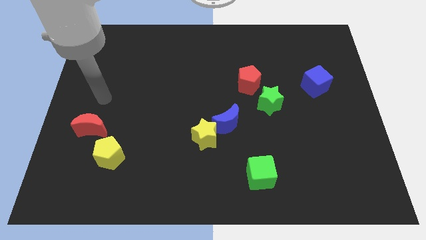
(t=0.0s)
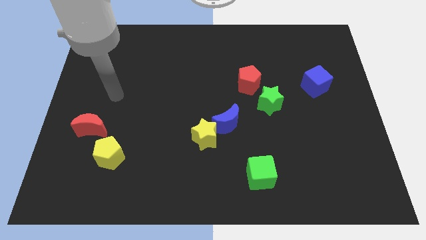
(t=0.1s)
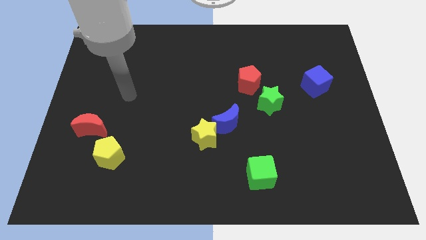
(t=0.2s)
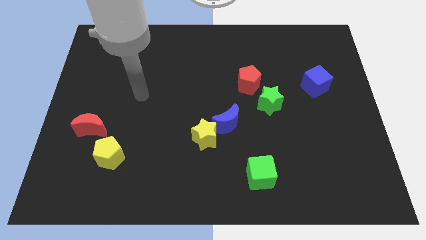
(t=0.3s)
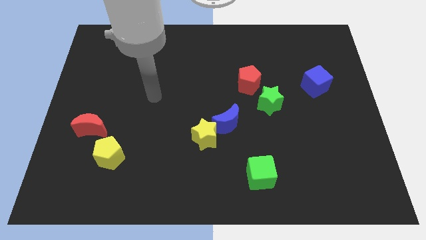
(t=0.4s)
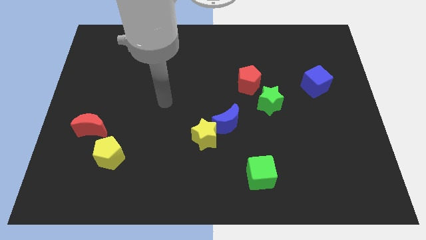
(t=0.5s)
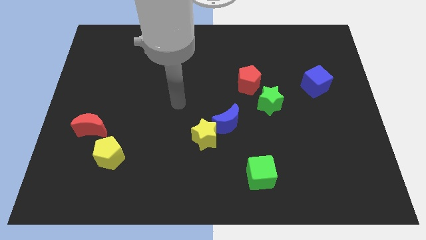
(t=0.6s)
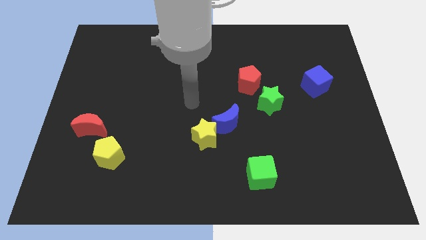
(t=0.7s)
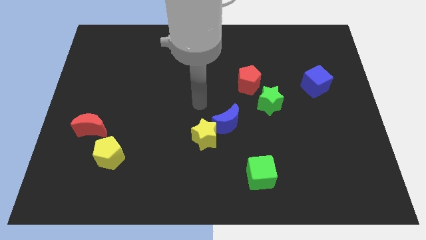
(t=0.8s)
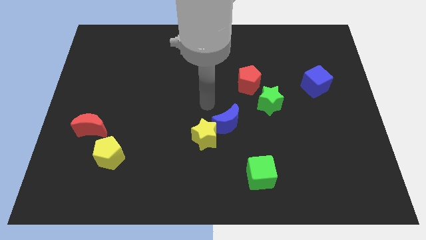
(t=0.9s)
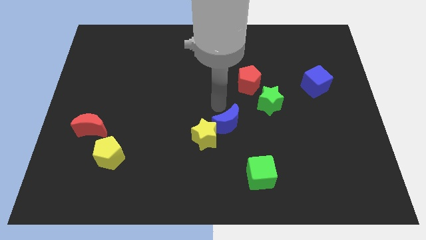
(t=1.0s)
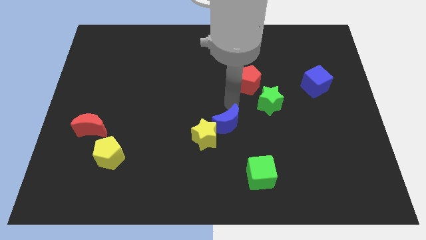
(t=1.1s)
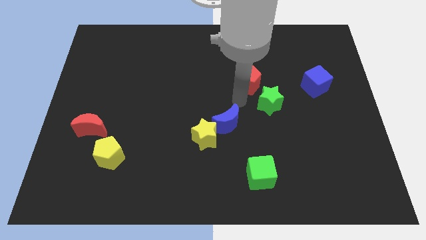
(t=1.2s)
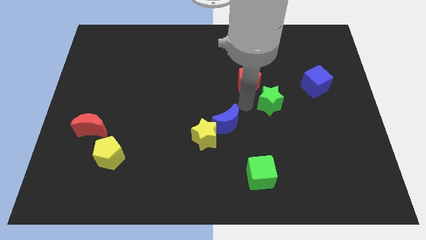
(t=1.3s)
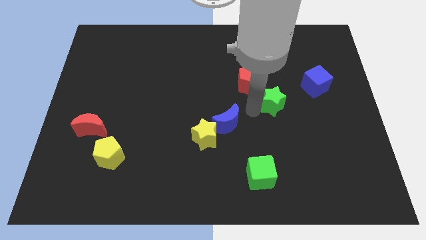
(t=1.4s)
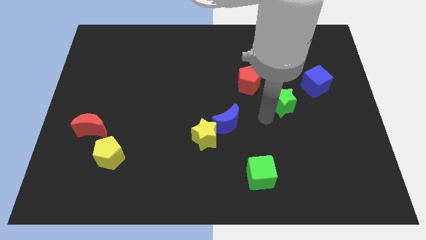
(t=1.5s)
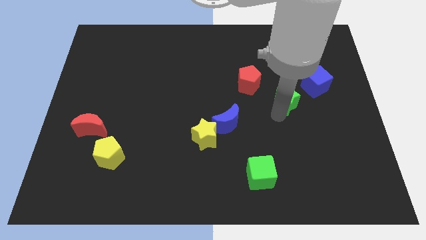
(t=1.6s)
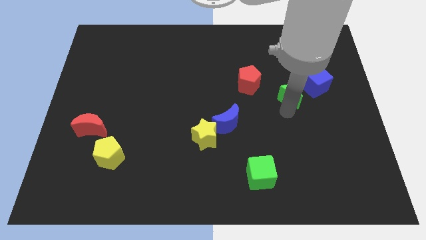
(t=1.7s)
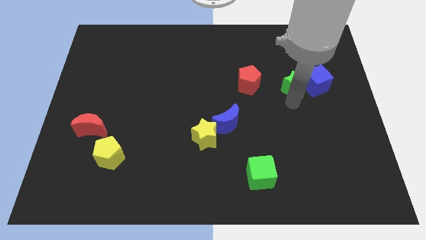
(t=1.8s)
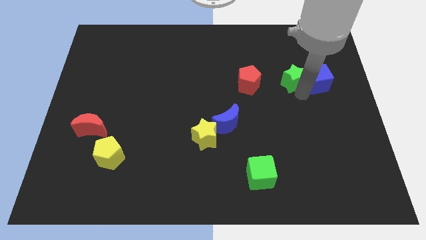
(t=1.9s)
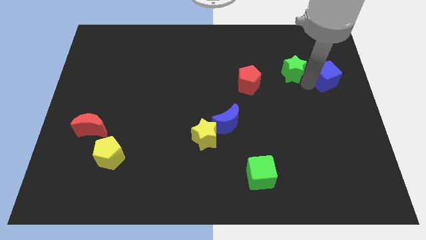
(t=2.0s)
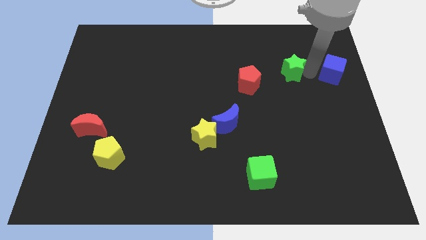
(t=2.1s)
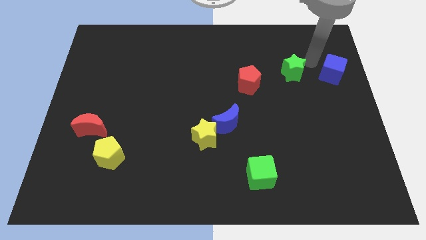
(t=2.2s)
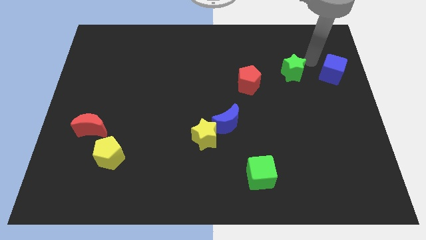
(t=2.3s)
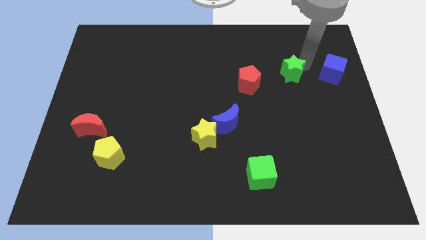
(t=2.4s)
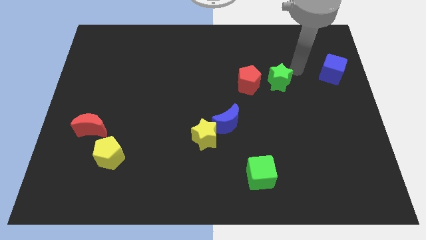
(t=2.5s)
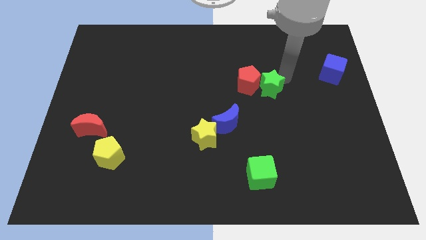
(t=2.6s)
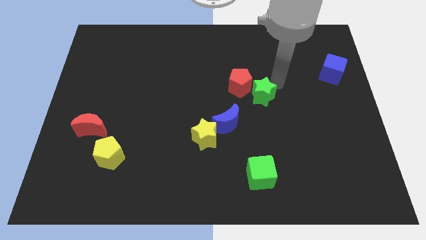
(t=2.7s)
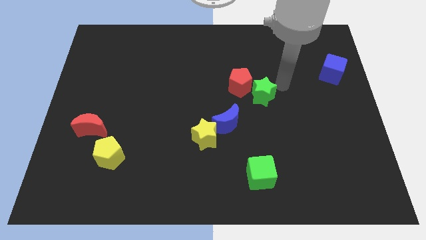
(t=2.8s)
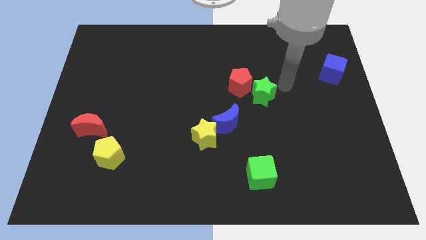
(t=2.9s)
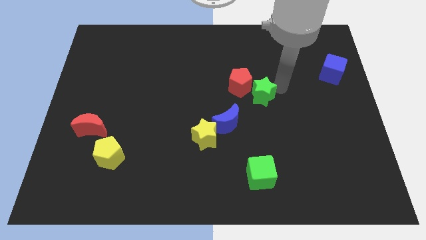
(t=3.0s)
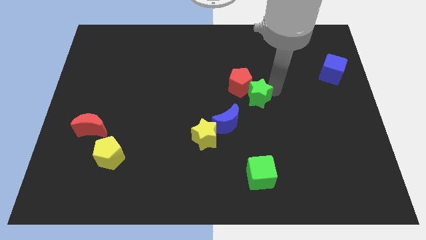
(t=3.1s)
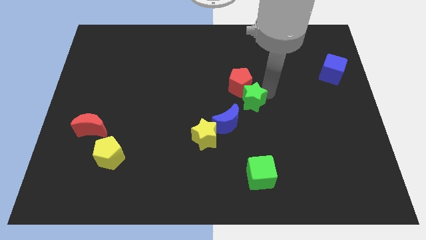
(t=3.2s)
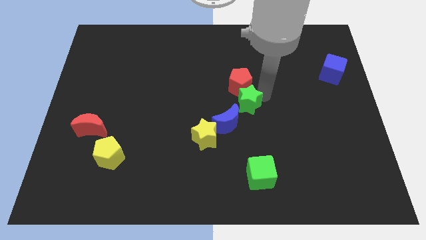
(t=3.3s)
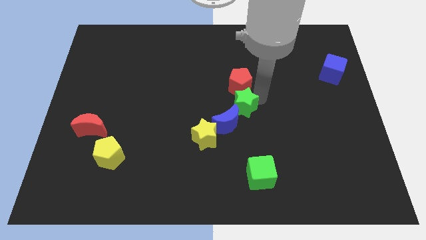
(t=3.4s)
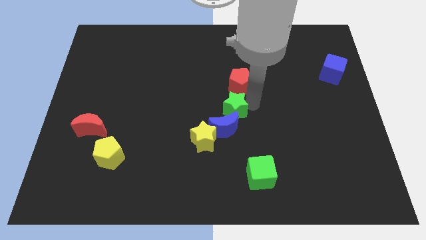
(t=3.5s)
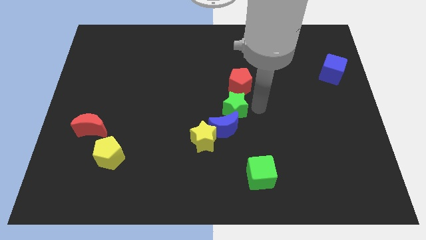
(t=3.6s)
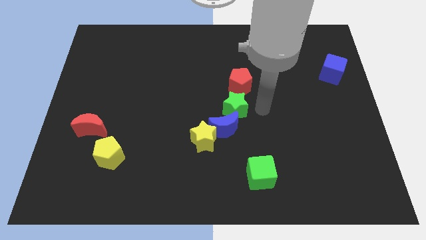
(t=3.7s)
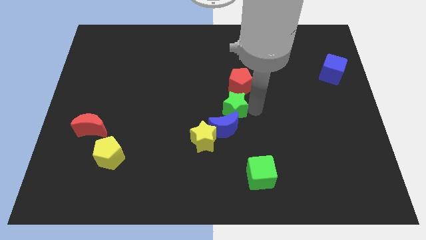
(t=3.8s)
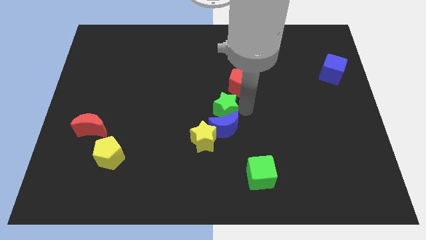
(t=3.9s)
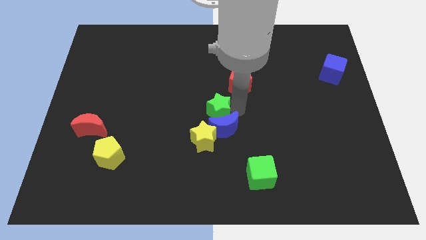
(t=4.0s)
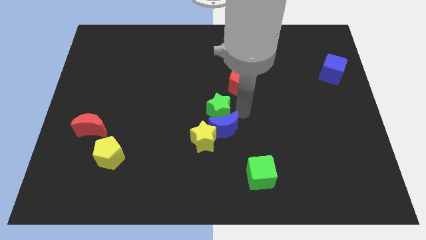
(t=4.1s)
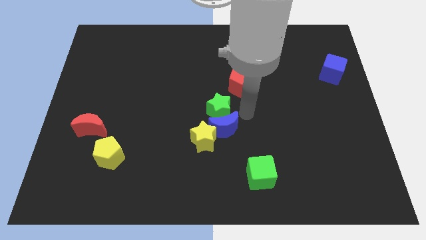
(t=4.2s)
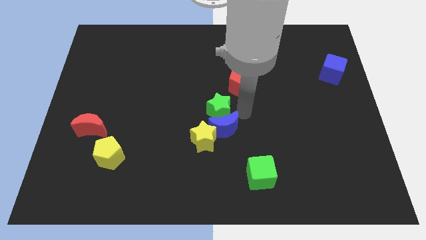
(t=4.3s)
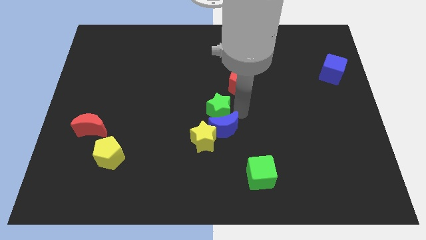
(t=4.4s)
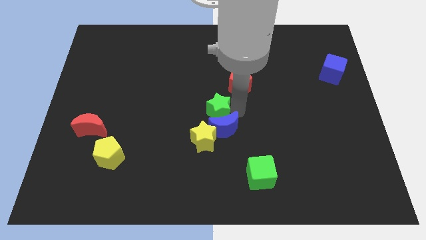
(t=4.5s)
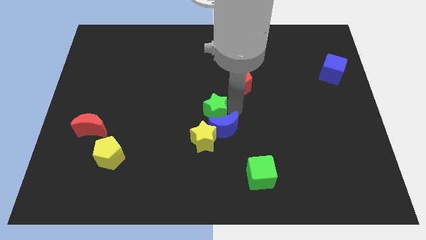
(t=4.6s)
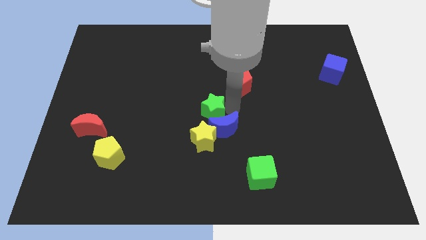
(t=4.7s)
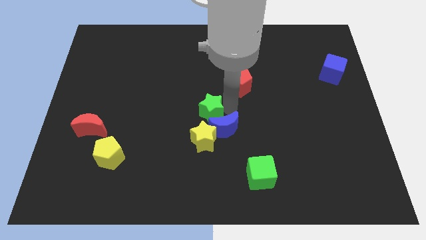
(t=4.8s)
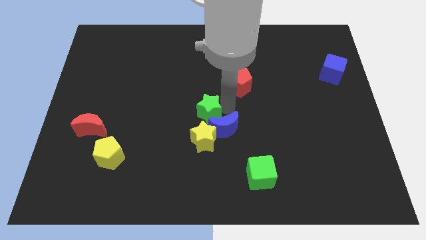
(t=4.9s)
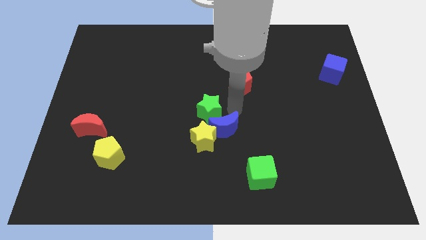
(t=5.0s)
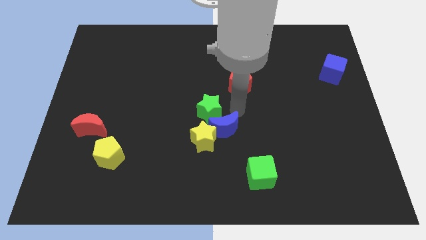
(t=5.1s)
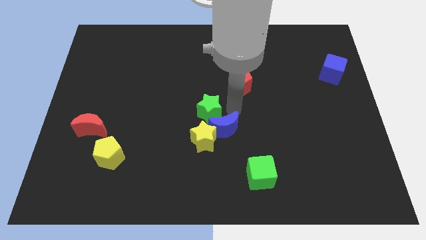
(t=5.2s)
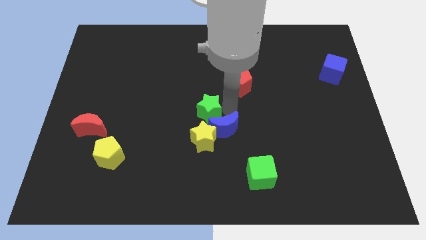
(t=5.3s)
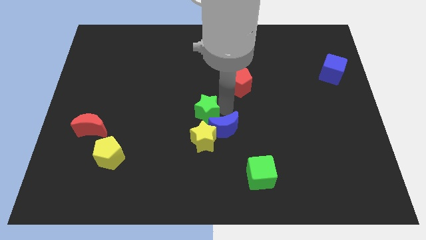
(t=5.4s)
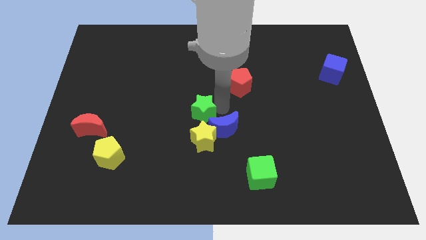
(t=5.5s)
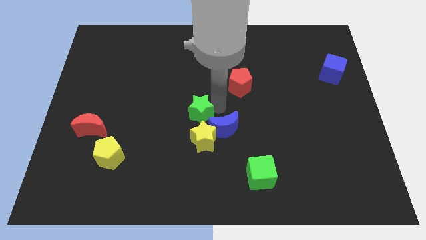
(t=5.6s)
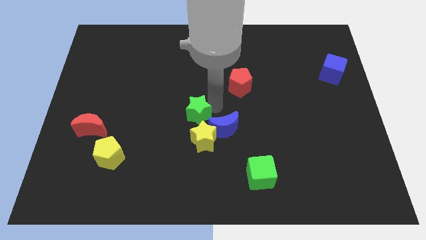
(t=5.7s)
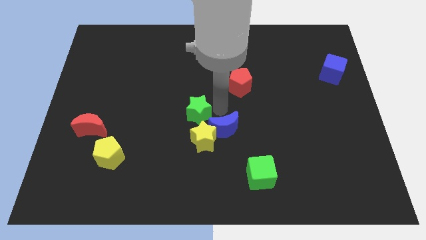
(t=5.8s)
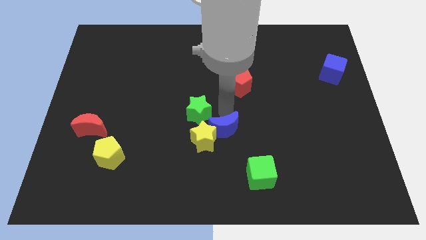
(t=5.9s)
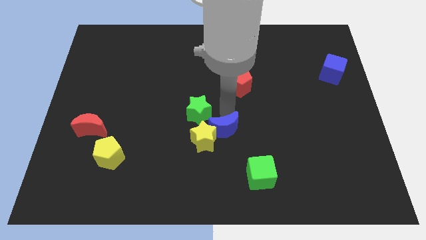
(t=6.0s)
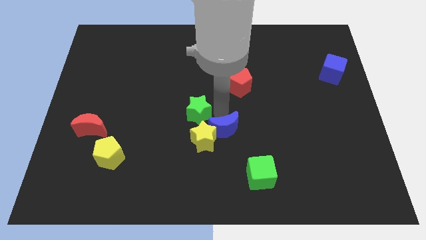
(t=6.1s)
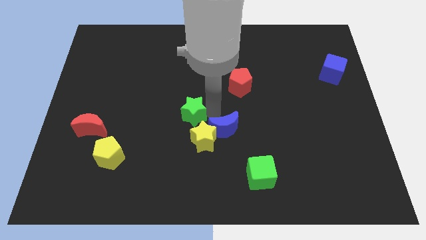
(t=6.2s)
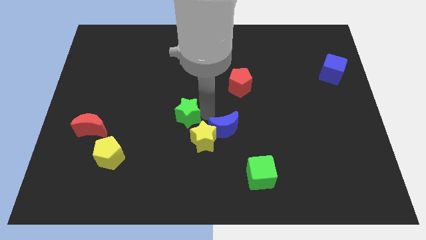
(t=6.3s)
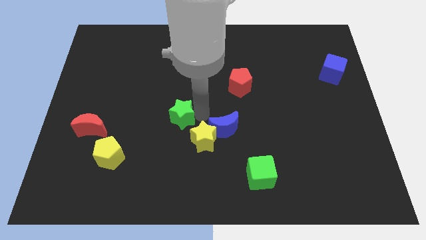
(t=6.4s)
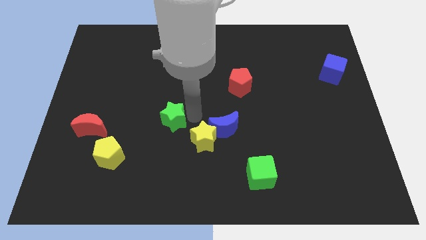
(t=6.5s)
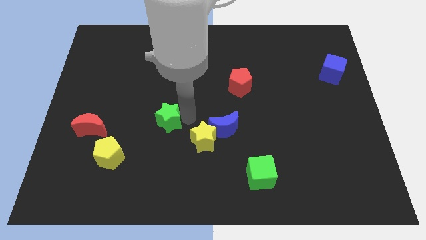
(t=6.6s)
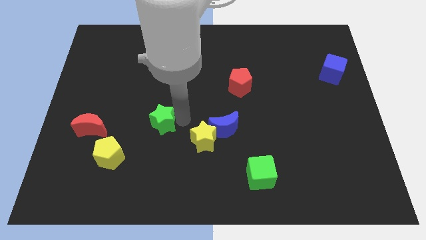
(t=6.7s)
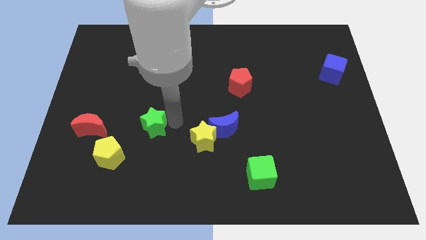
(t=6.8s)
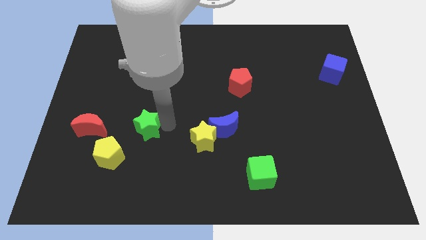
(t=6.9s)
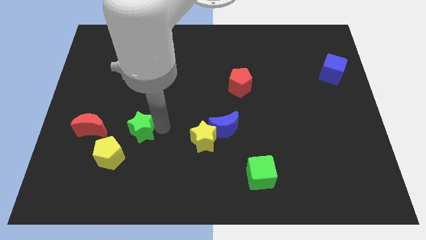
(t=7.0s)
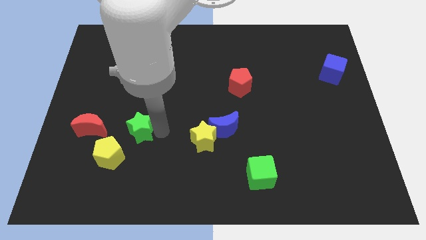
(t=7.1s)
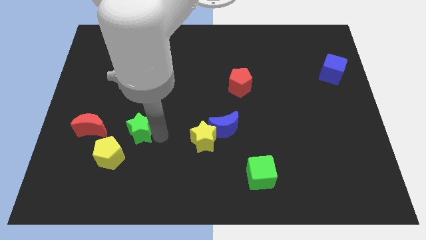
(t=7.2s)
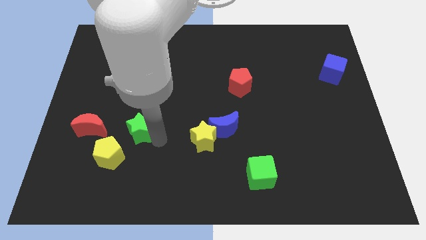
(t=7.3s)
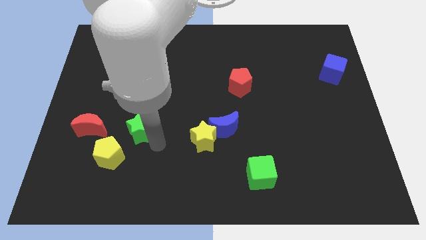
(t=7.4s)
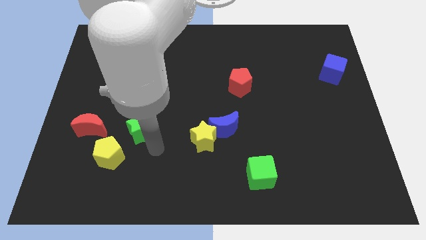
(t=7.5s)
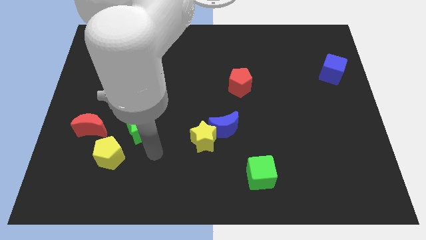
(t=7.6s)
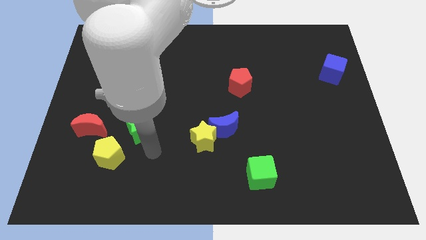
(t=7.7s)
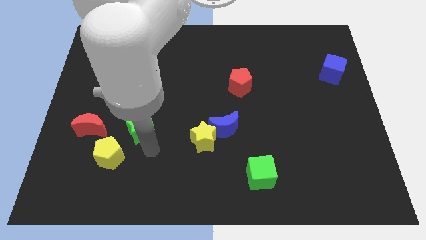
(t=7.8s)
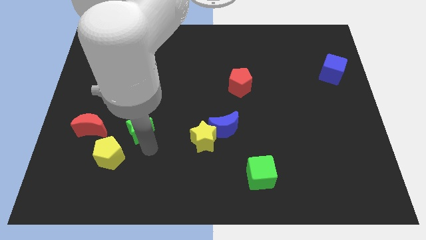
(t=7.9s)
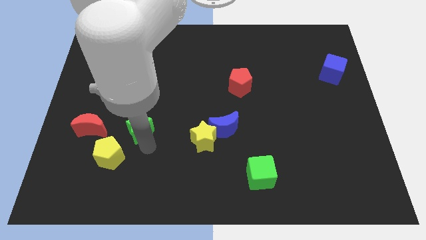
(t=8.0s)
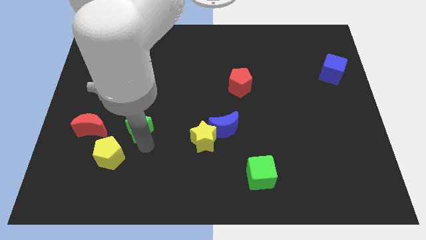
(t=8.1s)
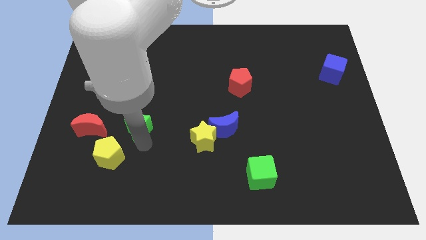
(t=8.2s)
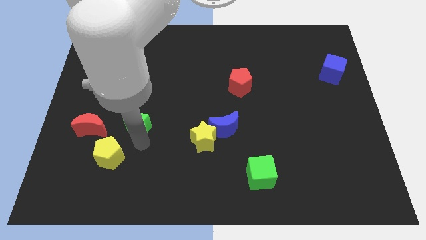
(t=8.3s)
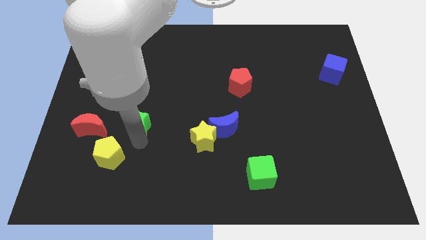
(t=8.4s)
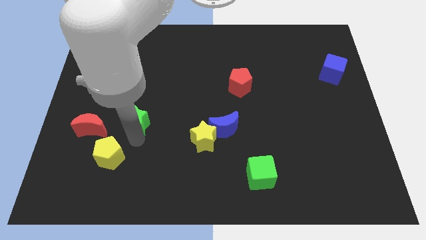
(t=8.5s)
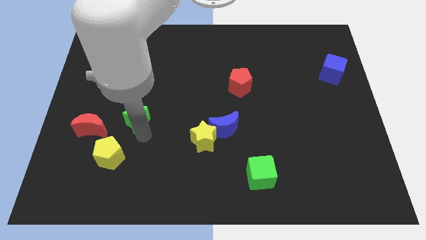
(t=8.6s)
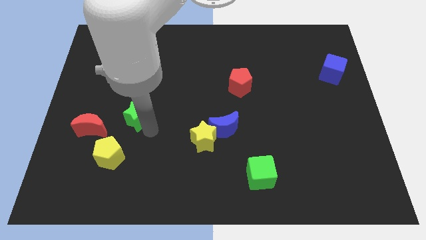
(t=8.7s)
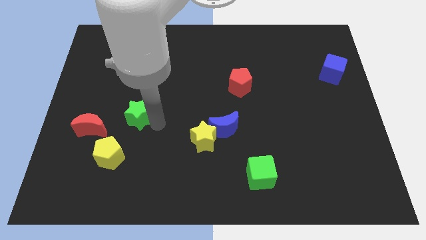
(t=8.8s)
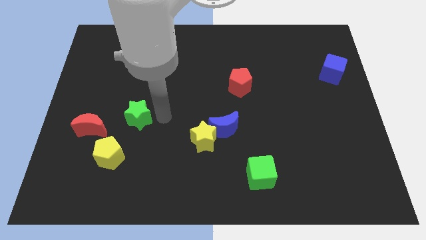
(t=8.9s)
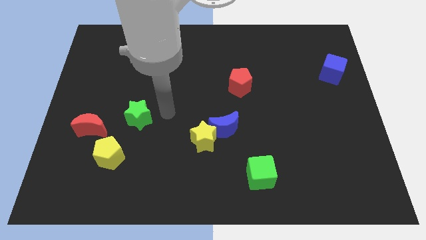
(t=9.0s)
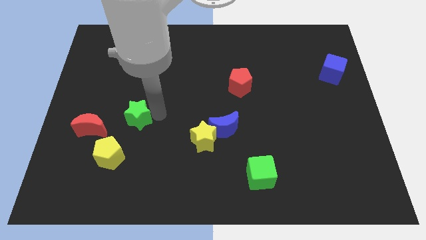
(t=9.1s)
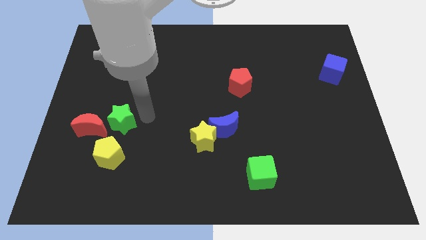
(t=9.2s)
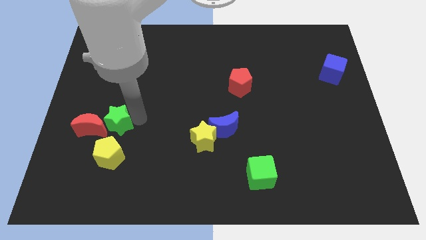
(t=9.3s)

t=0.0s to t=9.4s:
push the green star close to the red moon
